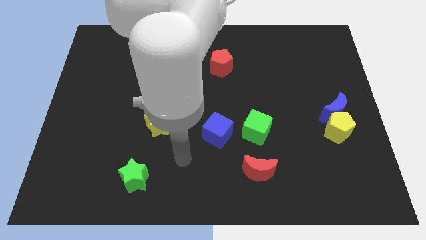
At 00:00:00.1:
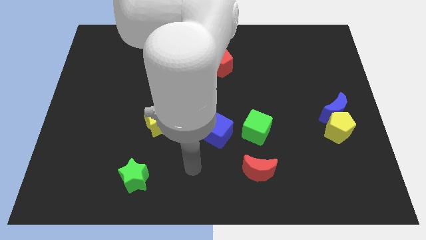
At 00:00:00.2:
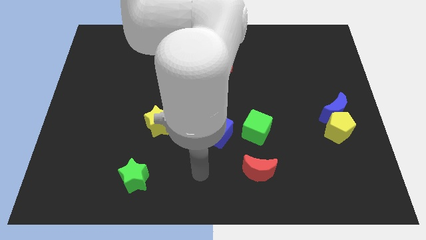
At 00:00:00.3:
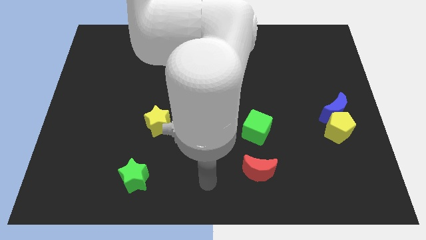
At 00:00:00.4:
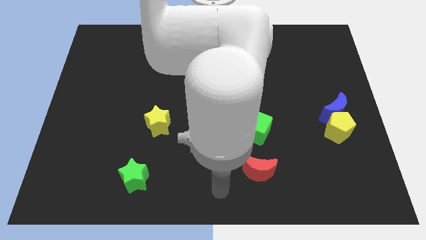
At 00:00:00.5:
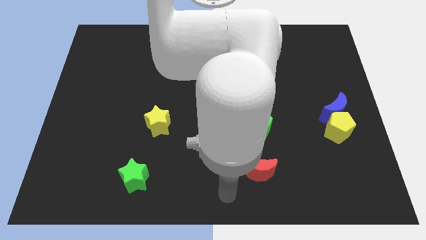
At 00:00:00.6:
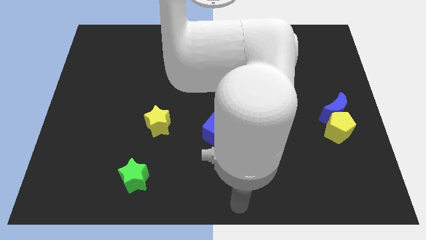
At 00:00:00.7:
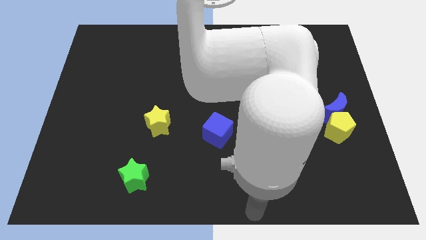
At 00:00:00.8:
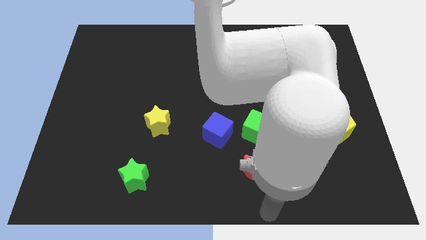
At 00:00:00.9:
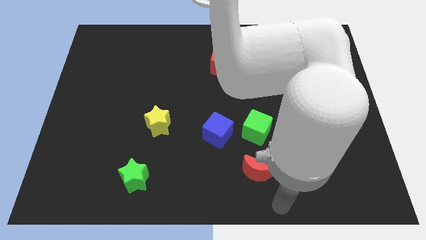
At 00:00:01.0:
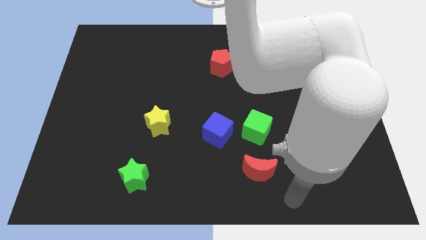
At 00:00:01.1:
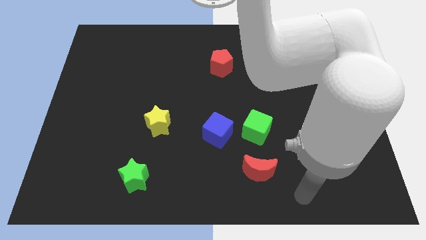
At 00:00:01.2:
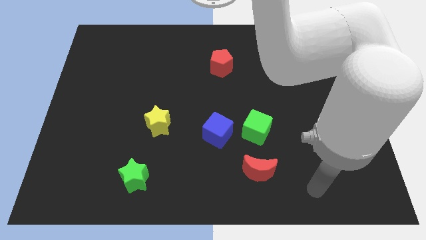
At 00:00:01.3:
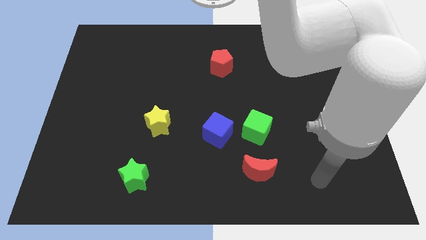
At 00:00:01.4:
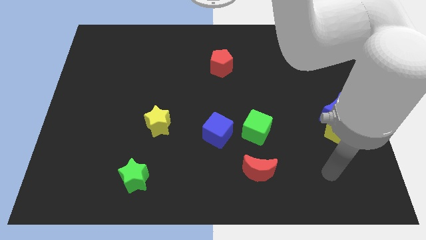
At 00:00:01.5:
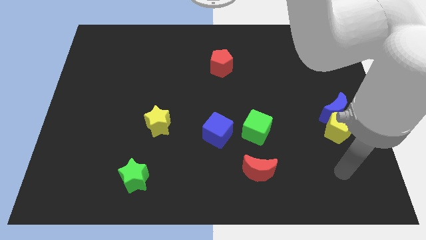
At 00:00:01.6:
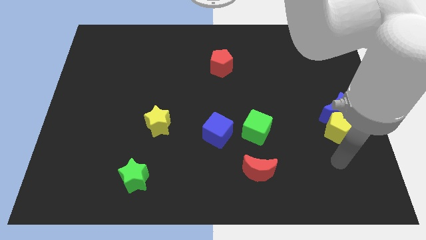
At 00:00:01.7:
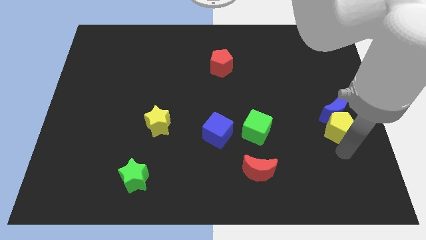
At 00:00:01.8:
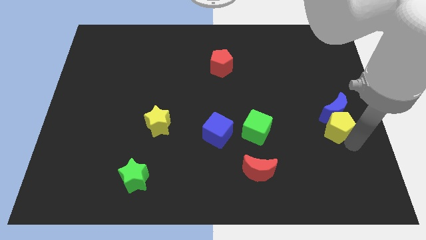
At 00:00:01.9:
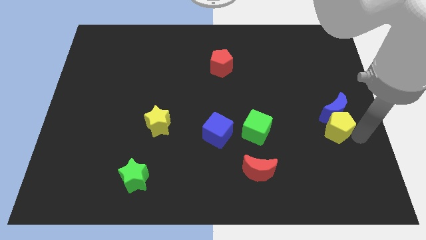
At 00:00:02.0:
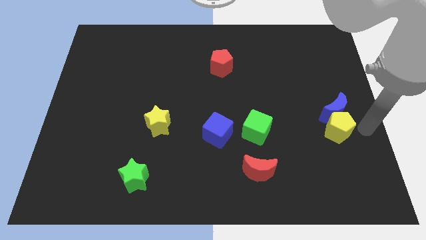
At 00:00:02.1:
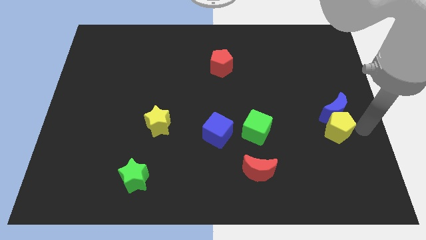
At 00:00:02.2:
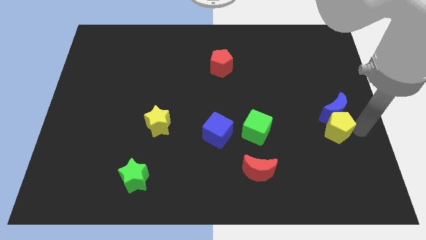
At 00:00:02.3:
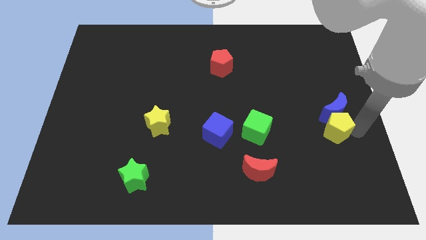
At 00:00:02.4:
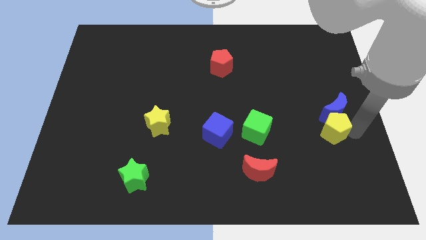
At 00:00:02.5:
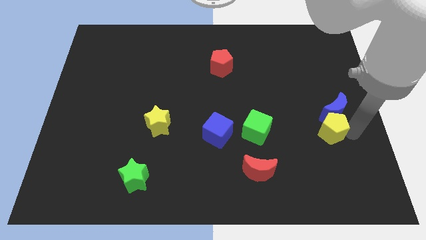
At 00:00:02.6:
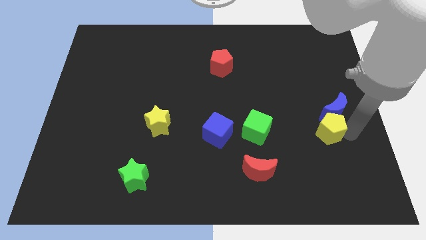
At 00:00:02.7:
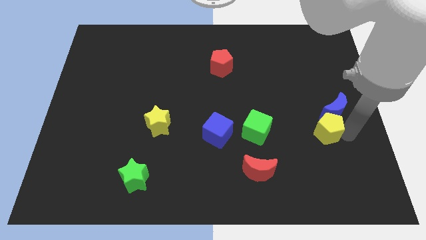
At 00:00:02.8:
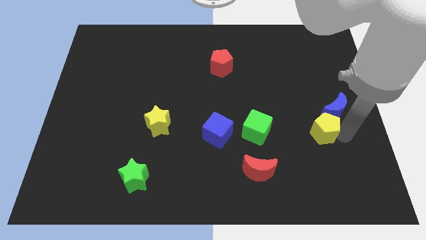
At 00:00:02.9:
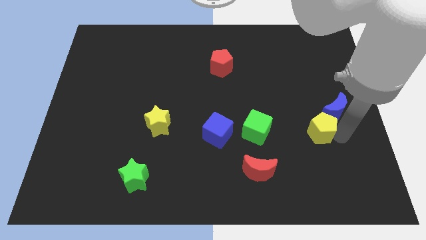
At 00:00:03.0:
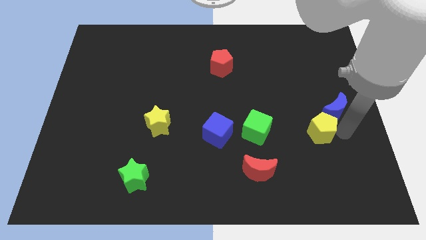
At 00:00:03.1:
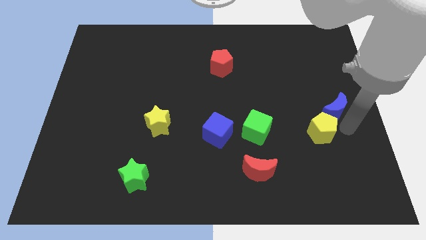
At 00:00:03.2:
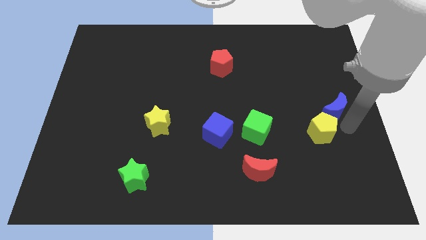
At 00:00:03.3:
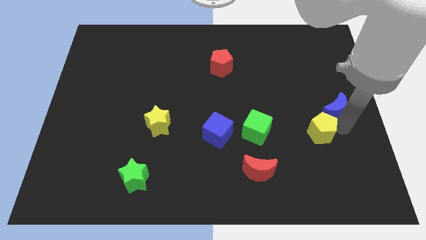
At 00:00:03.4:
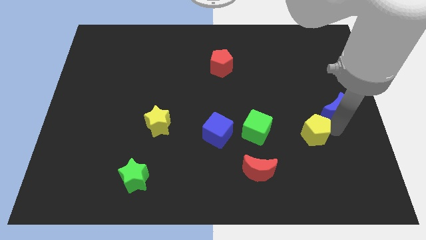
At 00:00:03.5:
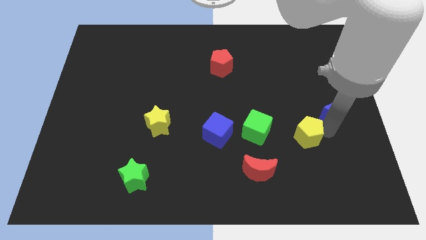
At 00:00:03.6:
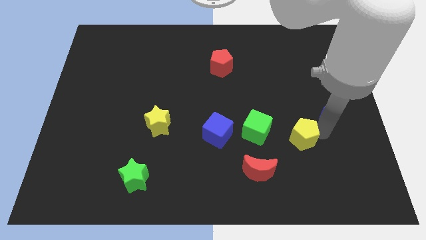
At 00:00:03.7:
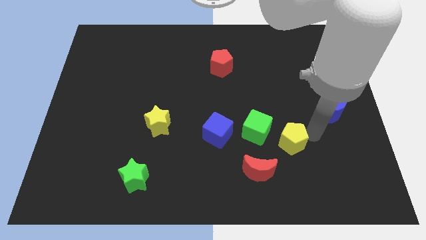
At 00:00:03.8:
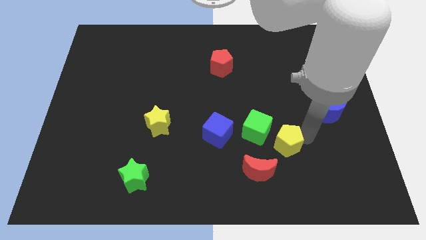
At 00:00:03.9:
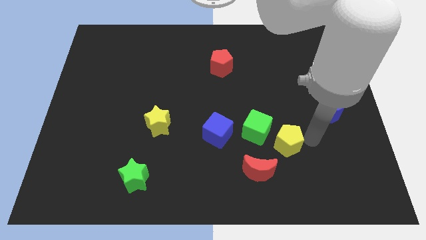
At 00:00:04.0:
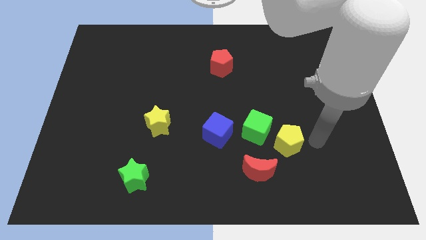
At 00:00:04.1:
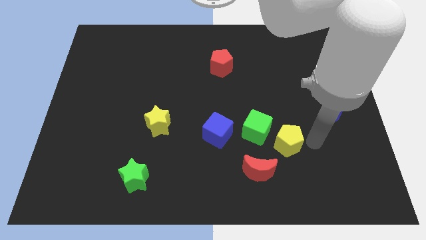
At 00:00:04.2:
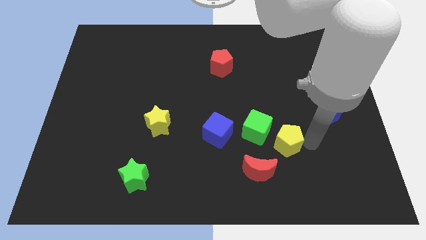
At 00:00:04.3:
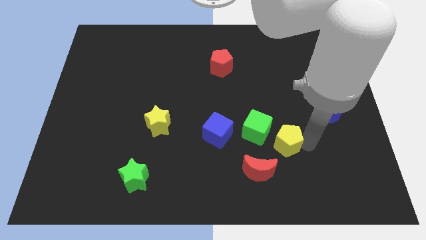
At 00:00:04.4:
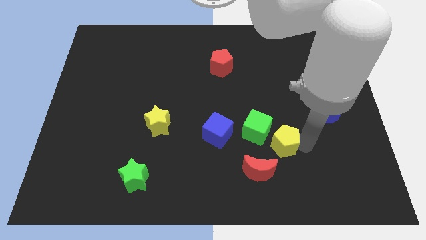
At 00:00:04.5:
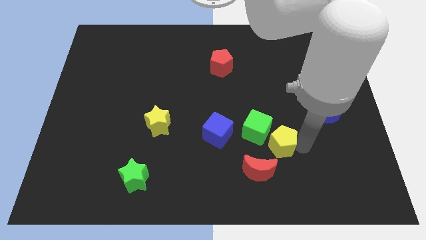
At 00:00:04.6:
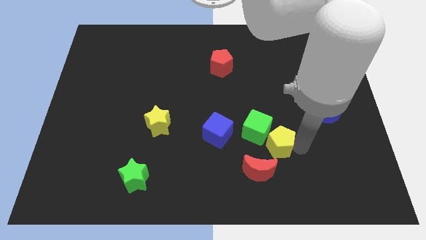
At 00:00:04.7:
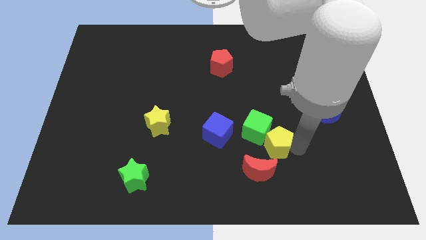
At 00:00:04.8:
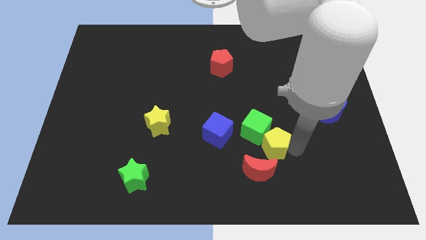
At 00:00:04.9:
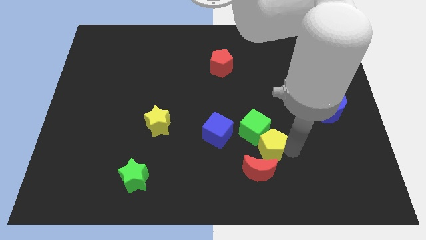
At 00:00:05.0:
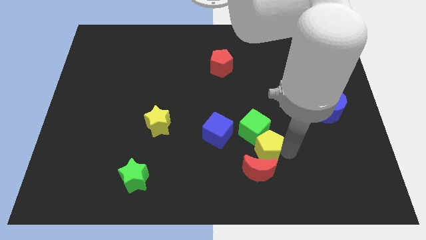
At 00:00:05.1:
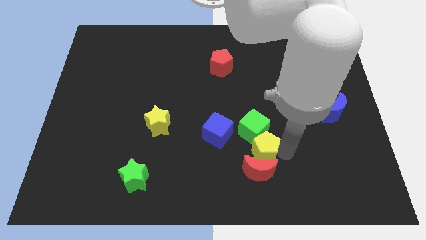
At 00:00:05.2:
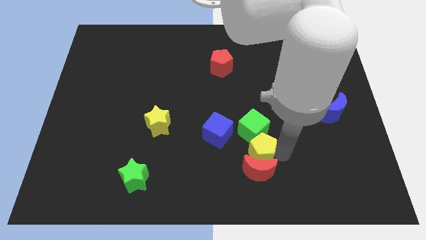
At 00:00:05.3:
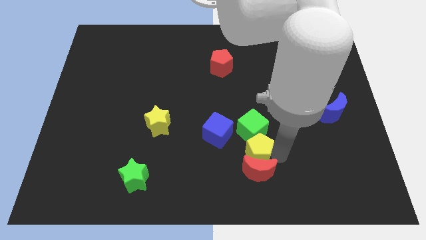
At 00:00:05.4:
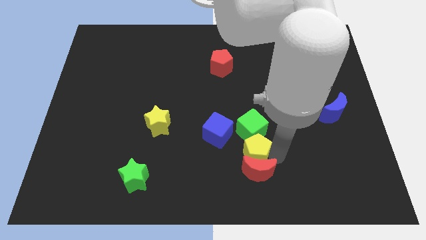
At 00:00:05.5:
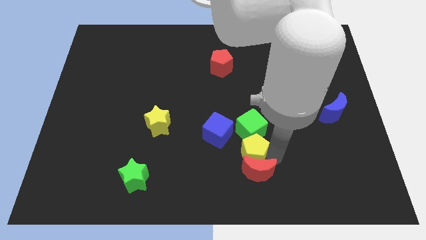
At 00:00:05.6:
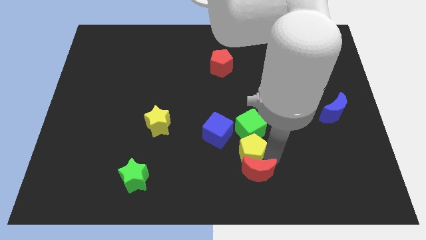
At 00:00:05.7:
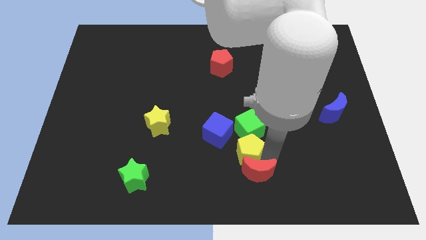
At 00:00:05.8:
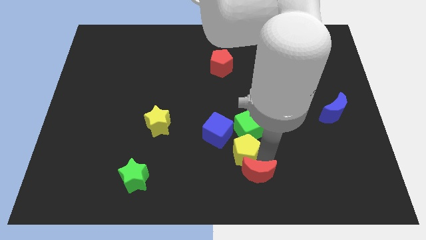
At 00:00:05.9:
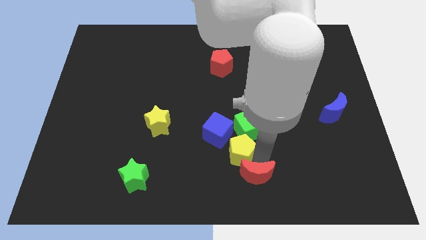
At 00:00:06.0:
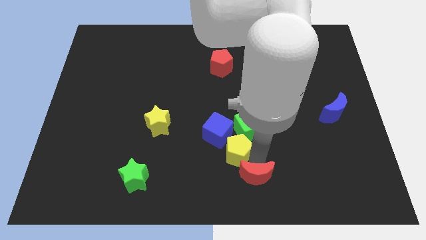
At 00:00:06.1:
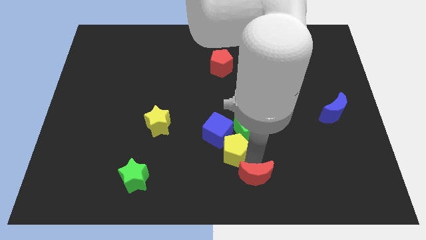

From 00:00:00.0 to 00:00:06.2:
slide the yellow pentagon towards the blue cube
